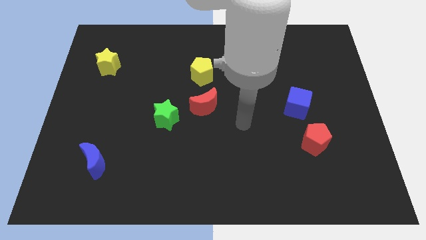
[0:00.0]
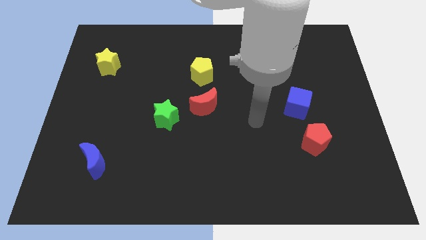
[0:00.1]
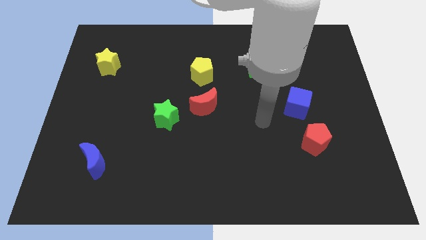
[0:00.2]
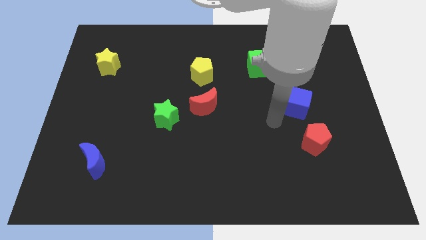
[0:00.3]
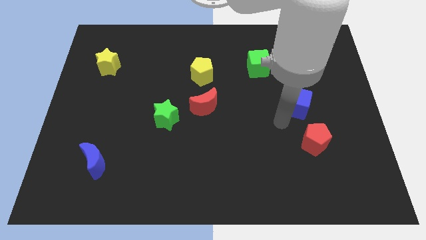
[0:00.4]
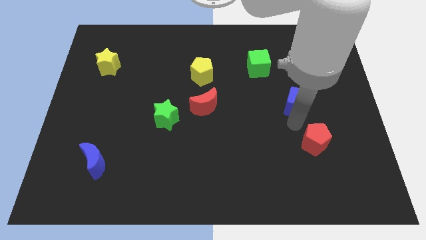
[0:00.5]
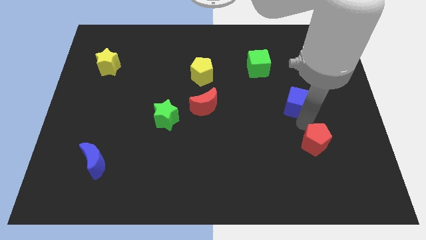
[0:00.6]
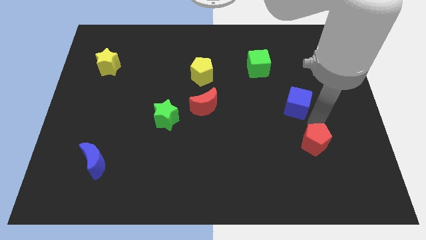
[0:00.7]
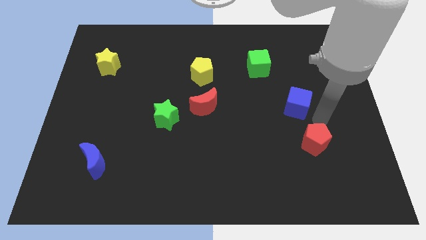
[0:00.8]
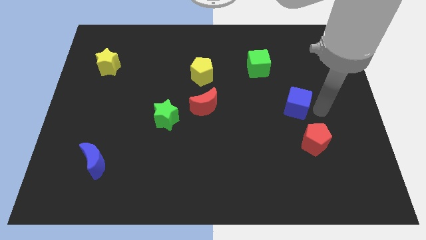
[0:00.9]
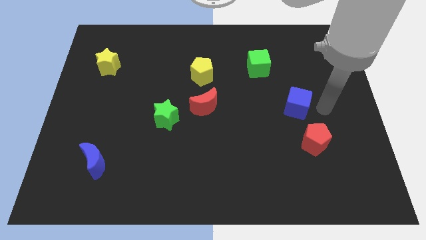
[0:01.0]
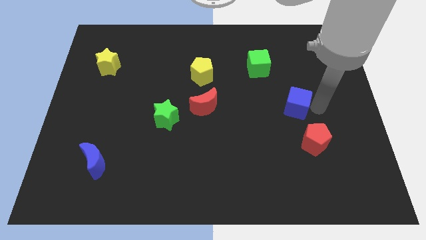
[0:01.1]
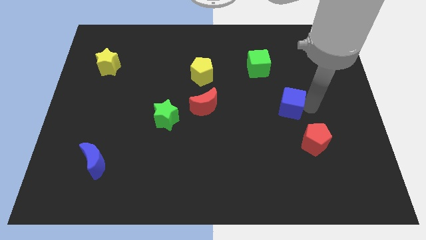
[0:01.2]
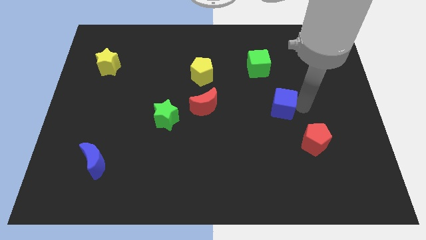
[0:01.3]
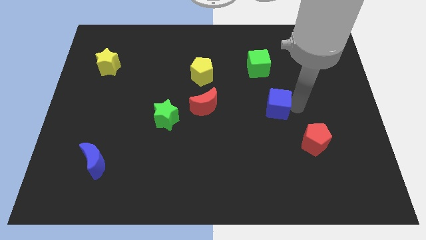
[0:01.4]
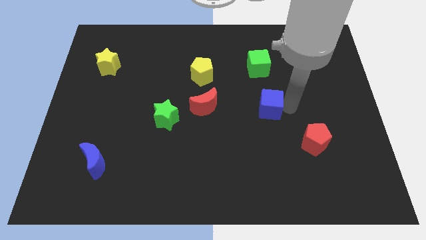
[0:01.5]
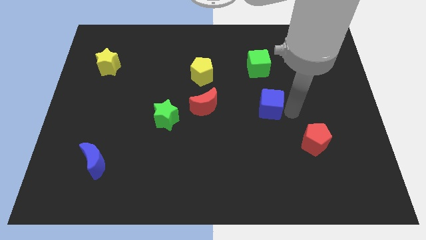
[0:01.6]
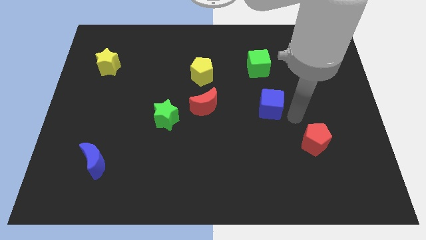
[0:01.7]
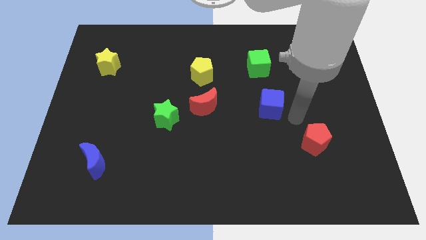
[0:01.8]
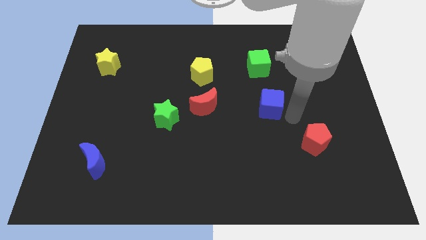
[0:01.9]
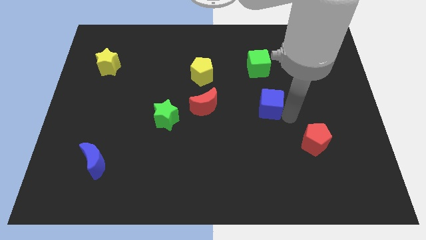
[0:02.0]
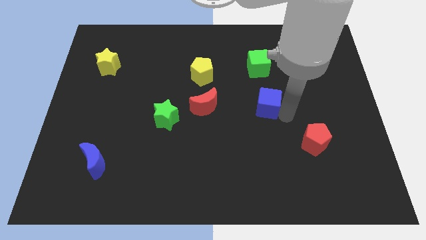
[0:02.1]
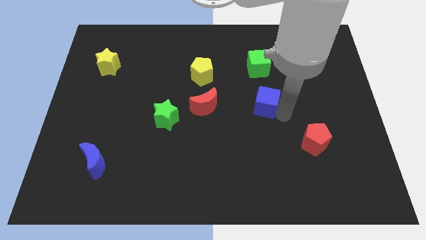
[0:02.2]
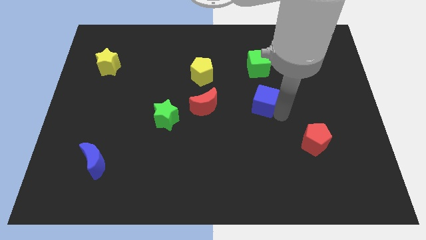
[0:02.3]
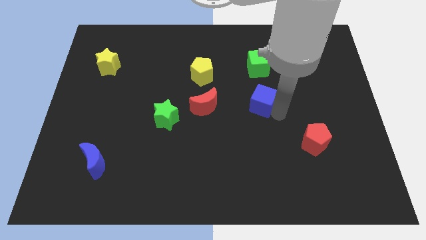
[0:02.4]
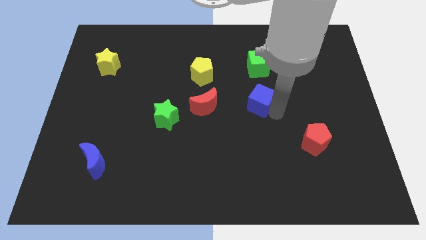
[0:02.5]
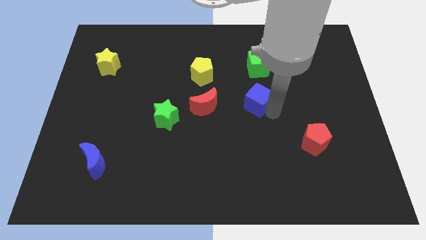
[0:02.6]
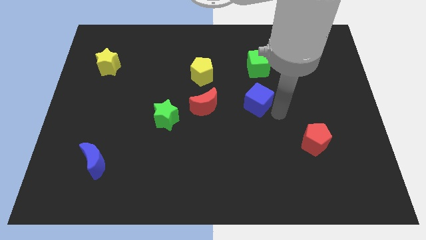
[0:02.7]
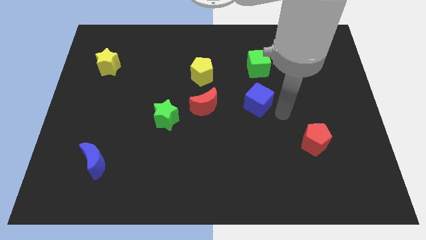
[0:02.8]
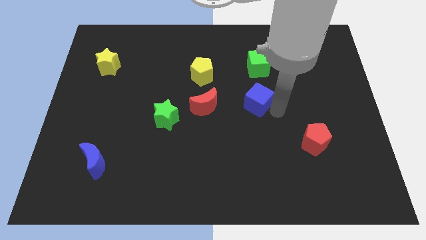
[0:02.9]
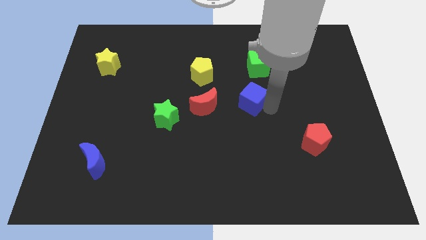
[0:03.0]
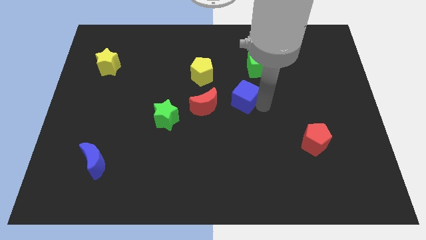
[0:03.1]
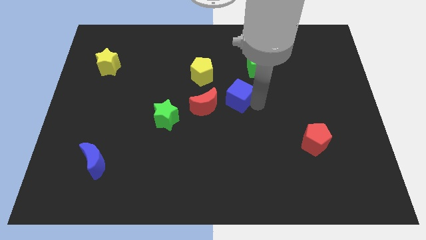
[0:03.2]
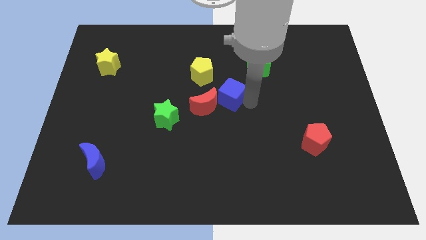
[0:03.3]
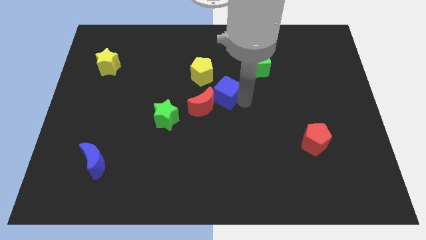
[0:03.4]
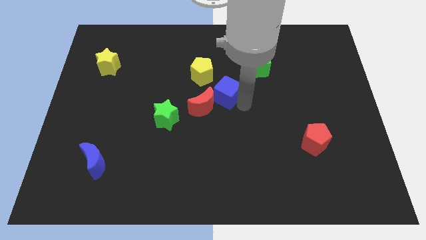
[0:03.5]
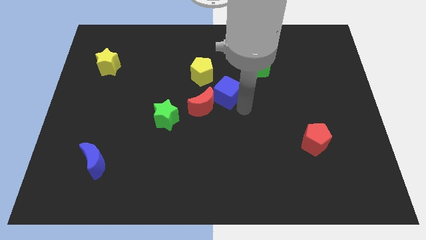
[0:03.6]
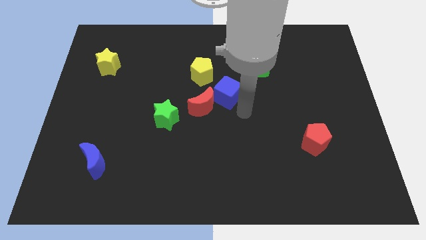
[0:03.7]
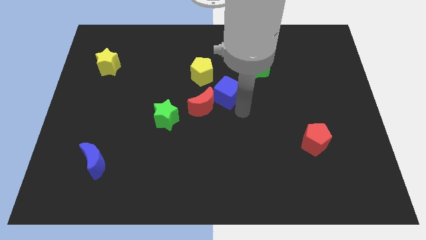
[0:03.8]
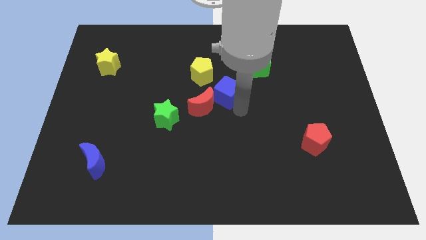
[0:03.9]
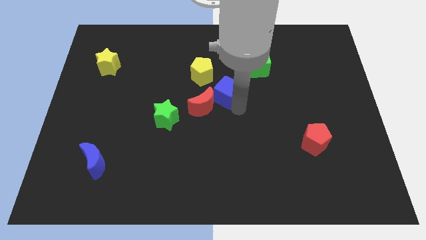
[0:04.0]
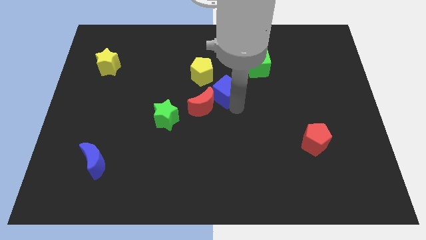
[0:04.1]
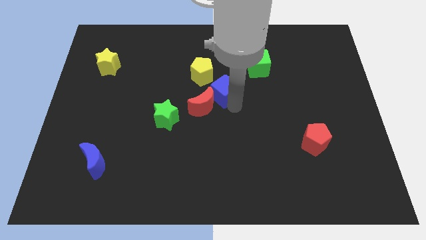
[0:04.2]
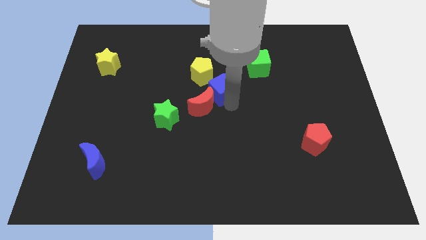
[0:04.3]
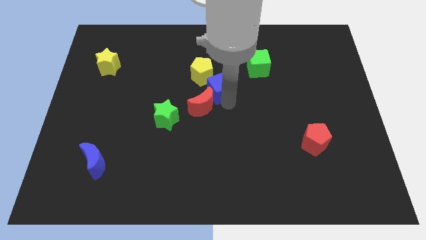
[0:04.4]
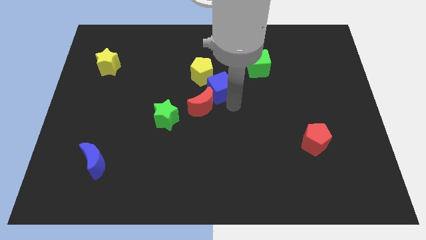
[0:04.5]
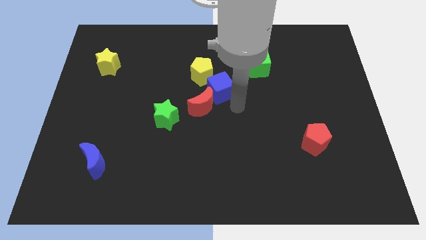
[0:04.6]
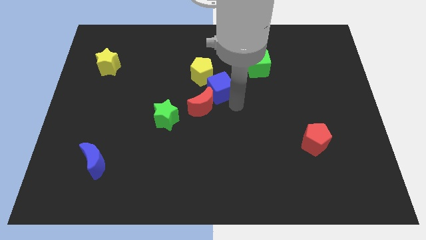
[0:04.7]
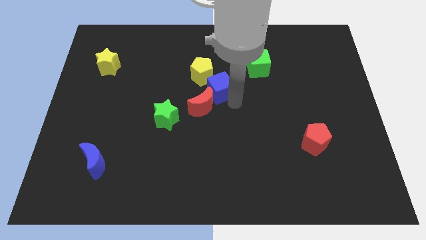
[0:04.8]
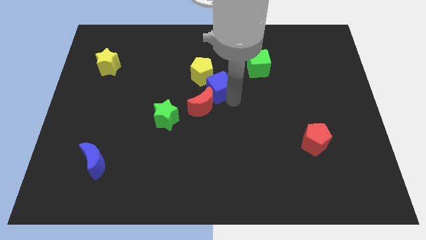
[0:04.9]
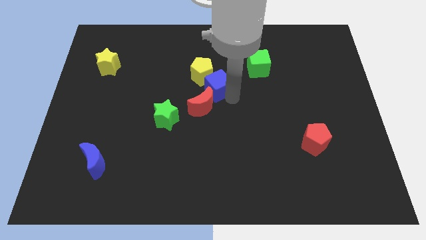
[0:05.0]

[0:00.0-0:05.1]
put the blue cube next to the yellow pentagon

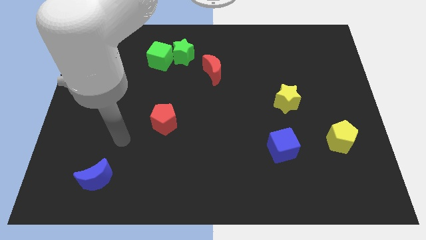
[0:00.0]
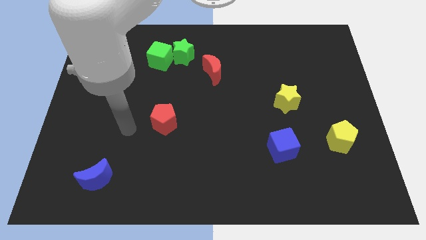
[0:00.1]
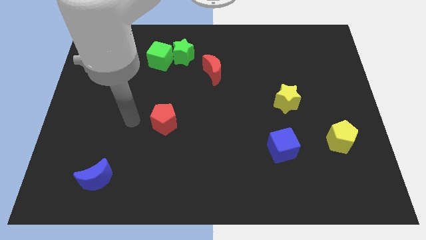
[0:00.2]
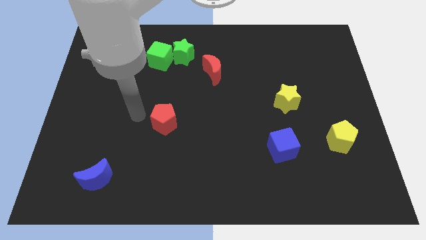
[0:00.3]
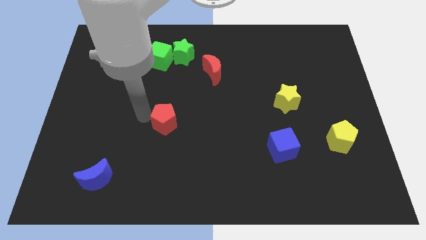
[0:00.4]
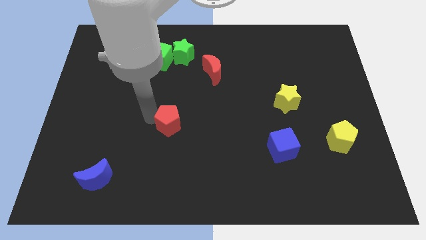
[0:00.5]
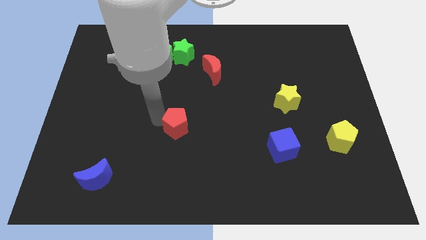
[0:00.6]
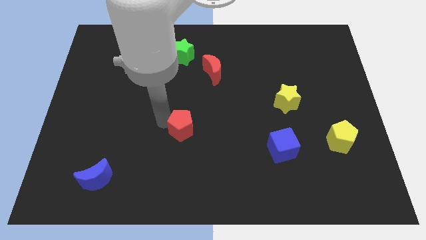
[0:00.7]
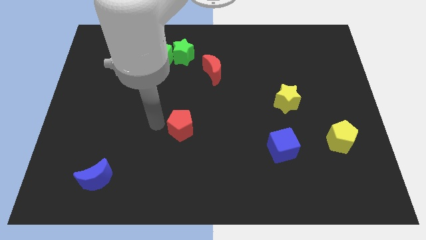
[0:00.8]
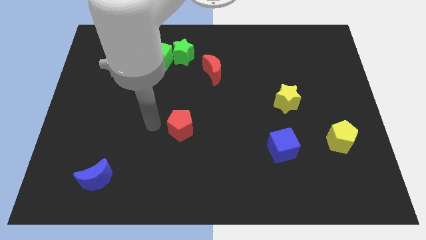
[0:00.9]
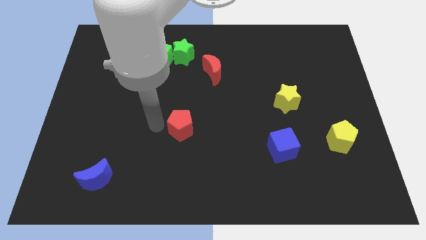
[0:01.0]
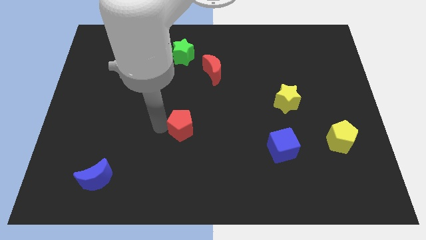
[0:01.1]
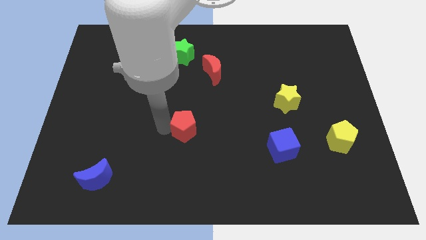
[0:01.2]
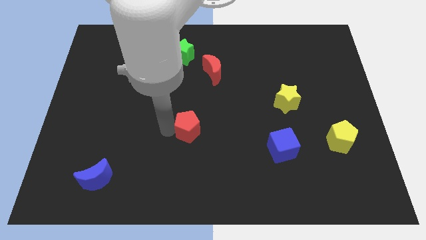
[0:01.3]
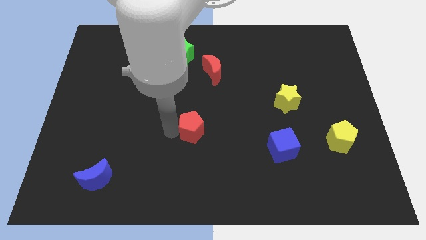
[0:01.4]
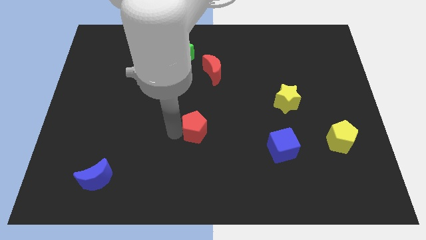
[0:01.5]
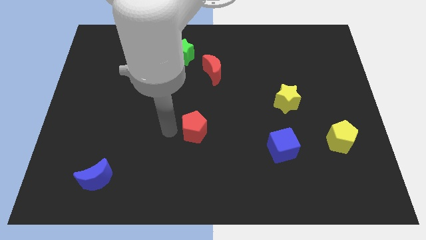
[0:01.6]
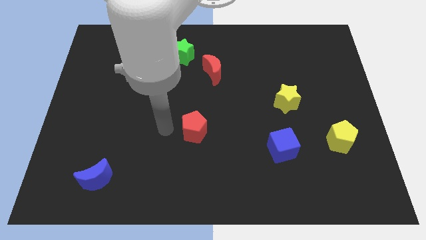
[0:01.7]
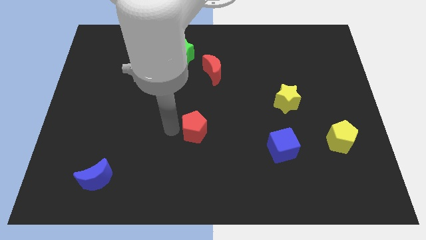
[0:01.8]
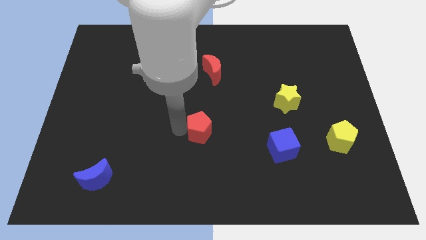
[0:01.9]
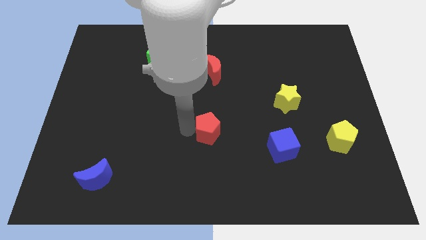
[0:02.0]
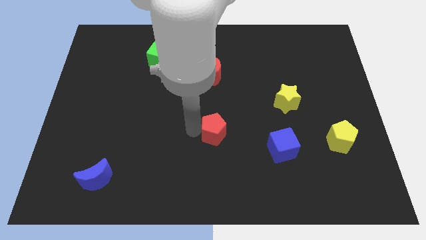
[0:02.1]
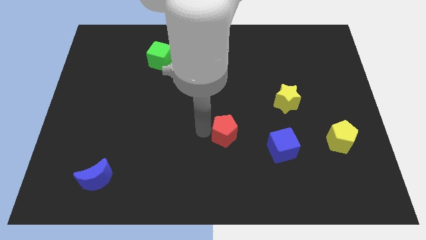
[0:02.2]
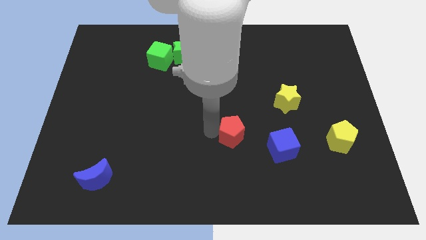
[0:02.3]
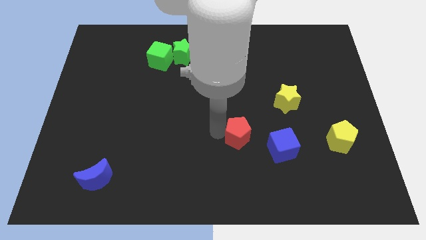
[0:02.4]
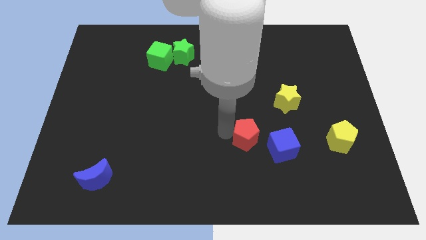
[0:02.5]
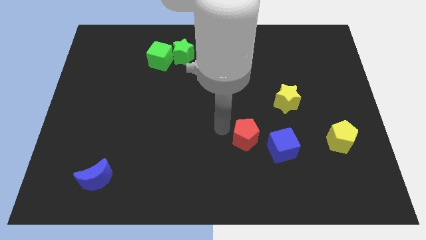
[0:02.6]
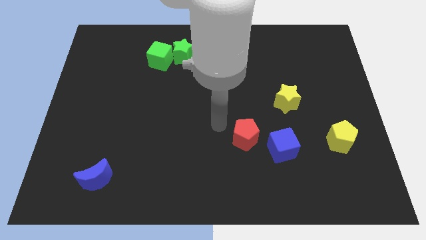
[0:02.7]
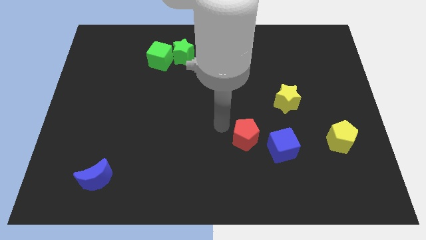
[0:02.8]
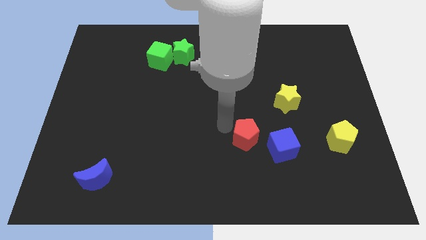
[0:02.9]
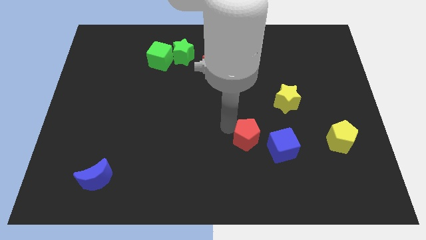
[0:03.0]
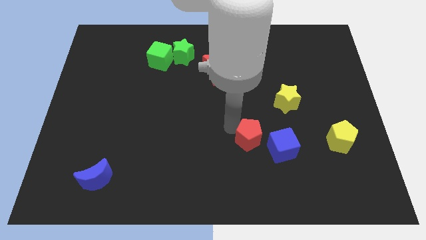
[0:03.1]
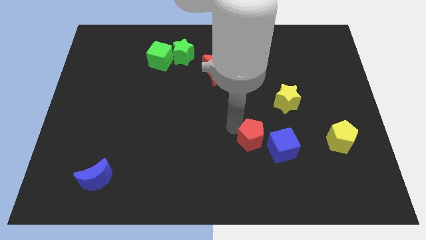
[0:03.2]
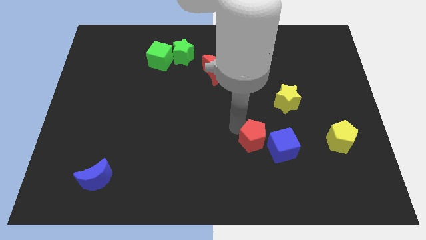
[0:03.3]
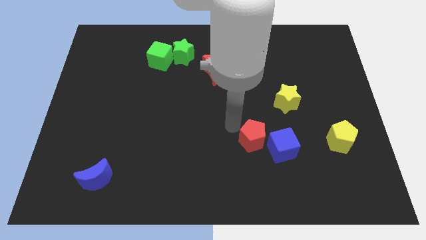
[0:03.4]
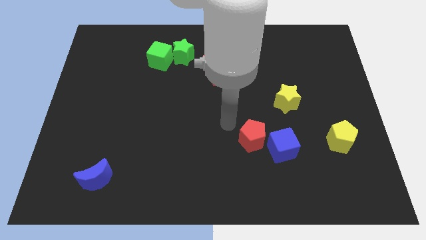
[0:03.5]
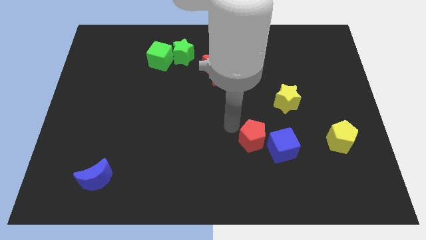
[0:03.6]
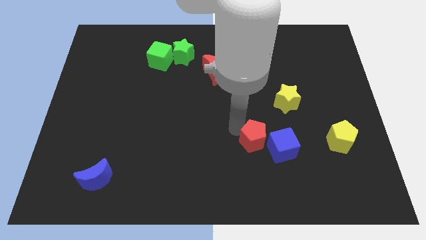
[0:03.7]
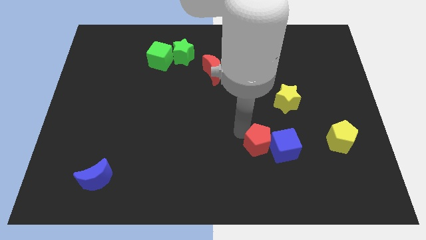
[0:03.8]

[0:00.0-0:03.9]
move the red pentagon to the blue cube
